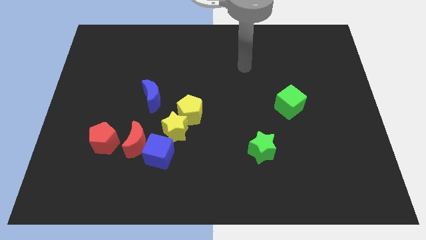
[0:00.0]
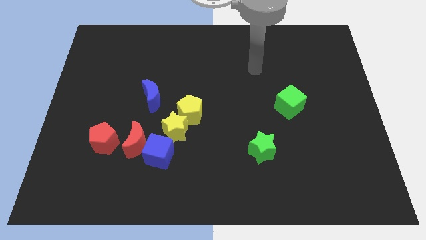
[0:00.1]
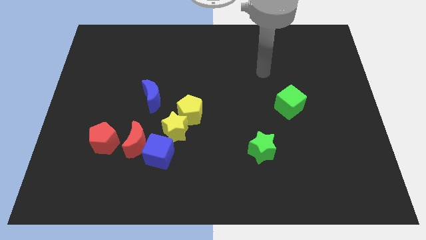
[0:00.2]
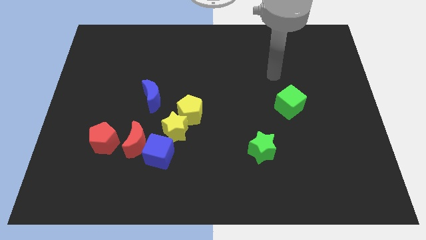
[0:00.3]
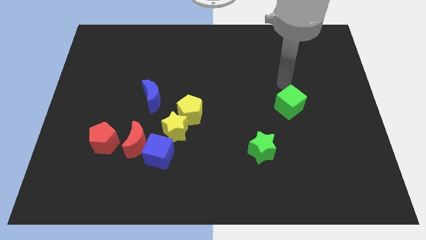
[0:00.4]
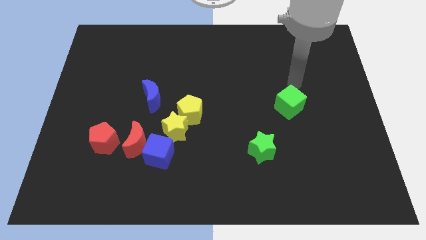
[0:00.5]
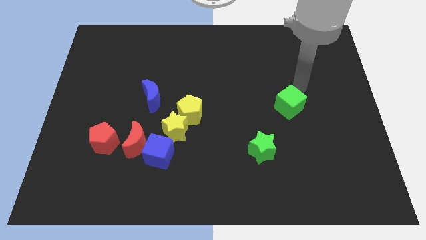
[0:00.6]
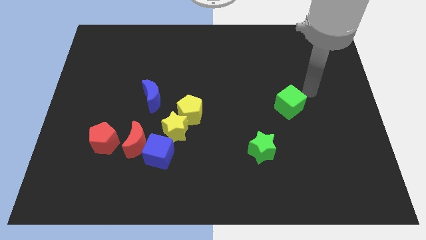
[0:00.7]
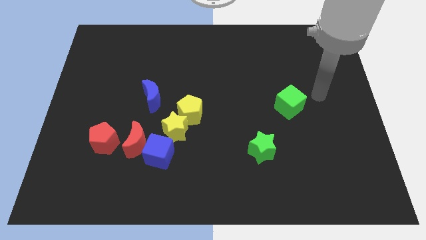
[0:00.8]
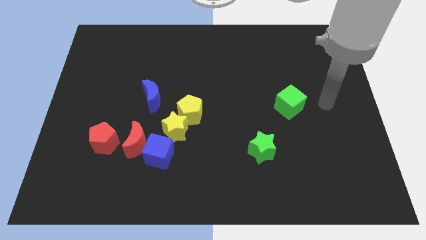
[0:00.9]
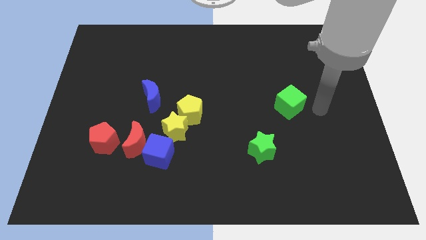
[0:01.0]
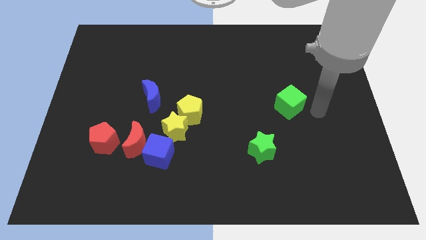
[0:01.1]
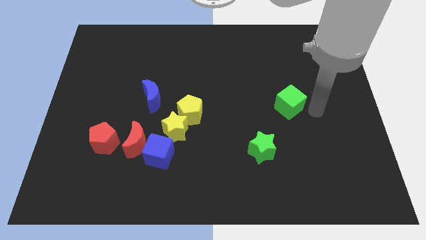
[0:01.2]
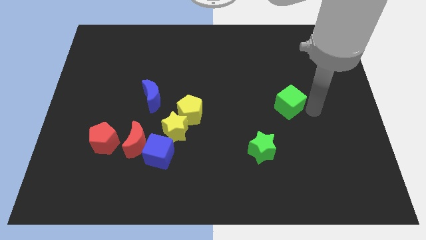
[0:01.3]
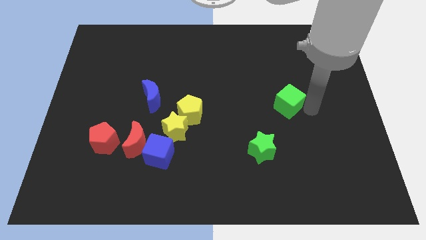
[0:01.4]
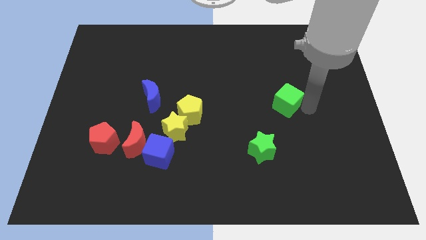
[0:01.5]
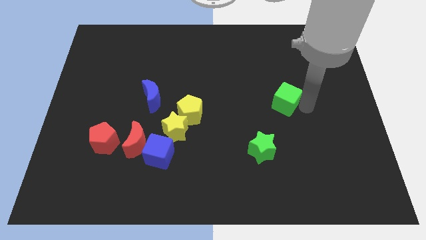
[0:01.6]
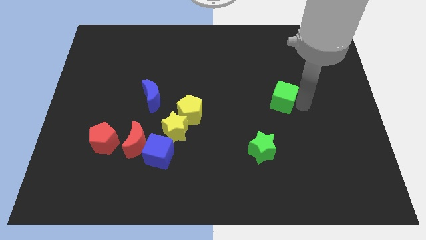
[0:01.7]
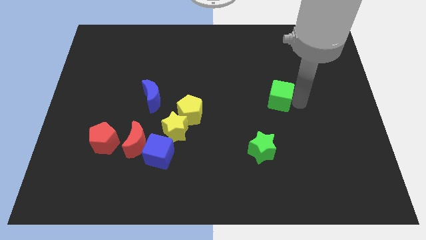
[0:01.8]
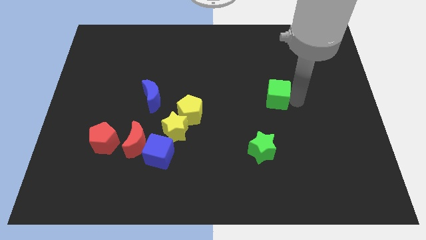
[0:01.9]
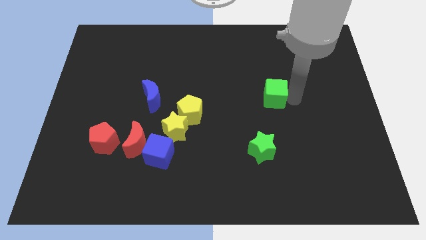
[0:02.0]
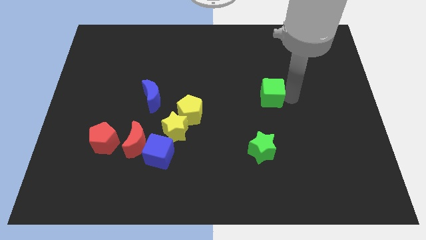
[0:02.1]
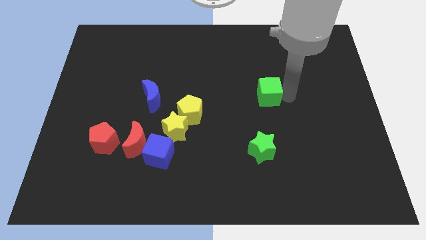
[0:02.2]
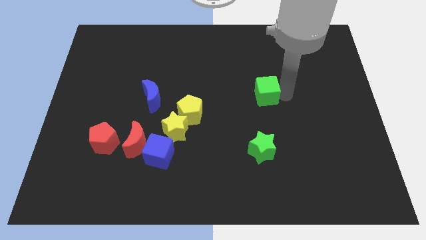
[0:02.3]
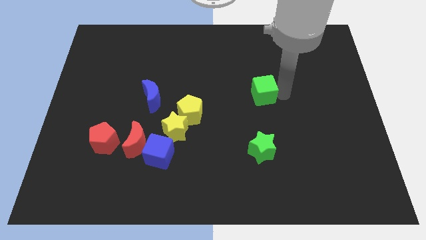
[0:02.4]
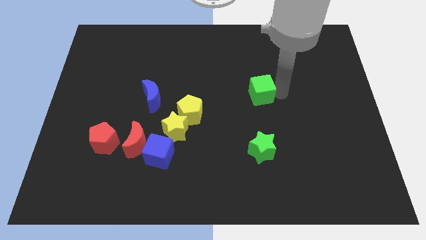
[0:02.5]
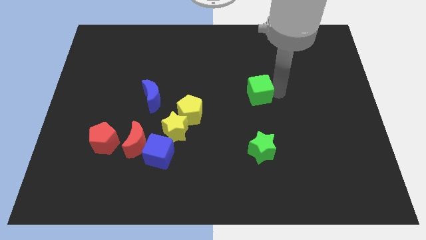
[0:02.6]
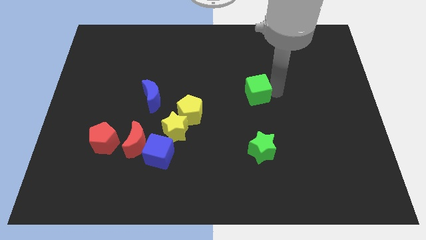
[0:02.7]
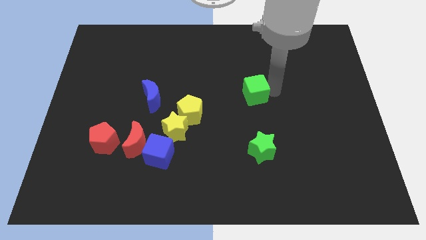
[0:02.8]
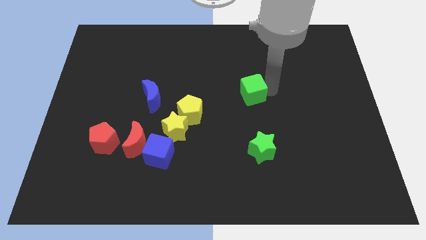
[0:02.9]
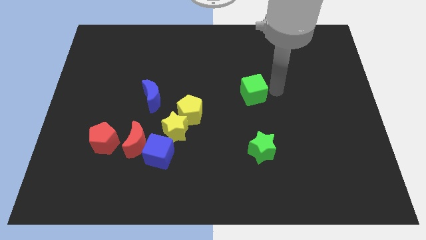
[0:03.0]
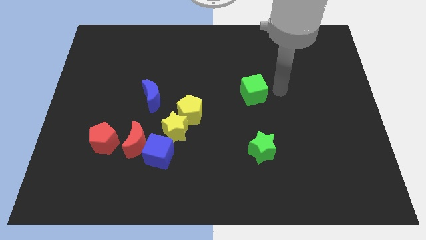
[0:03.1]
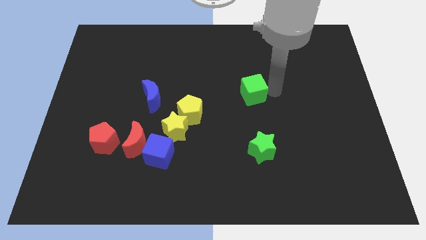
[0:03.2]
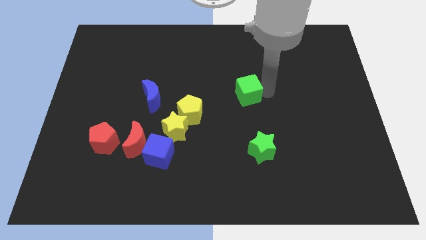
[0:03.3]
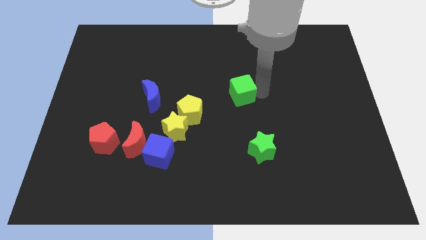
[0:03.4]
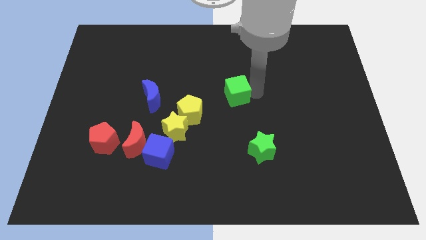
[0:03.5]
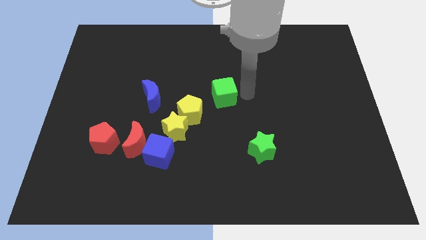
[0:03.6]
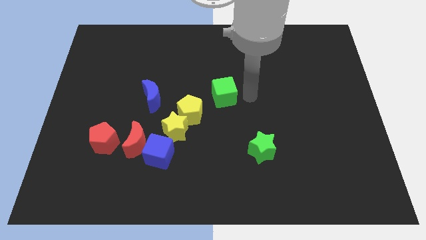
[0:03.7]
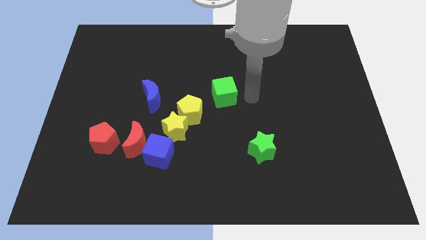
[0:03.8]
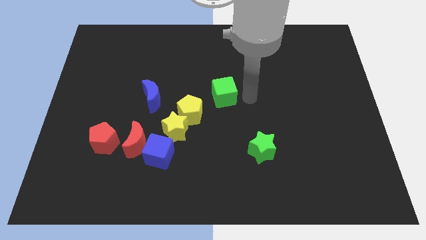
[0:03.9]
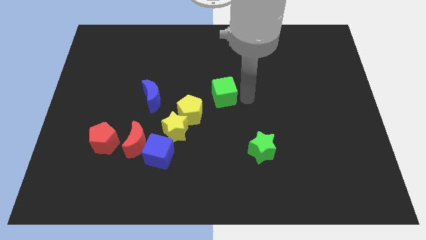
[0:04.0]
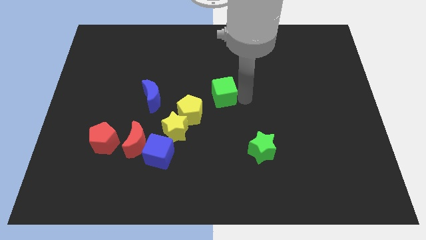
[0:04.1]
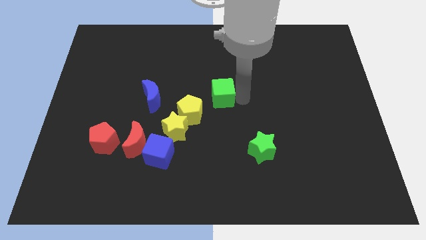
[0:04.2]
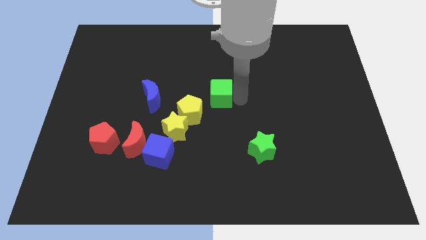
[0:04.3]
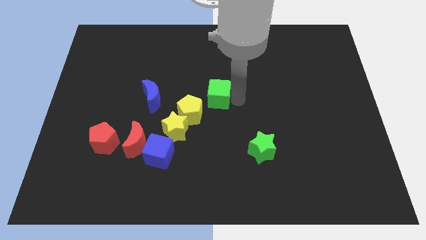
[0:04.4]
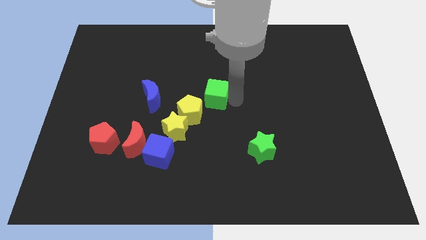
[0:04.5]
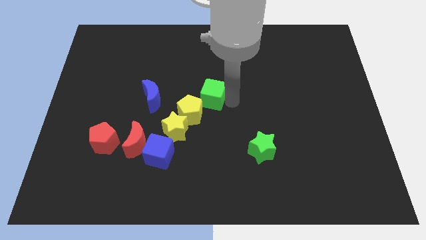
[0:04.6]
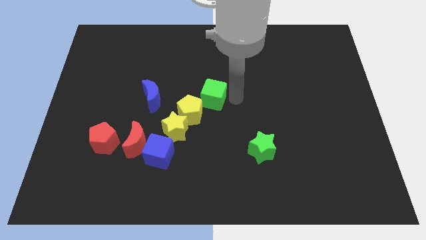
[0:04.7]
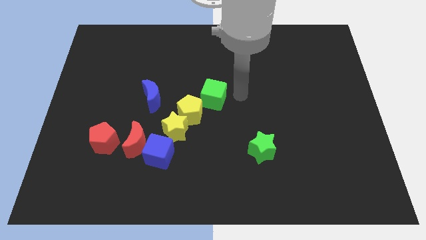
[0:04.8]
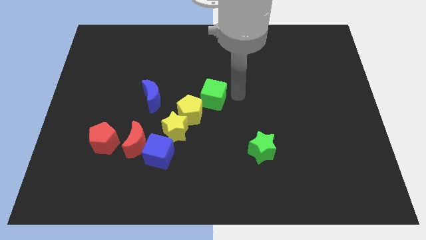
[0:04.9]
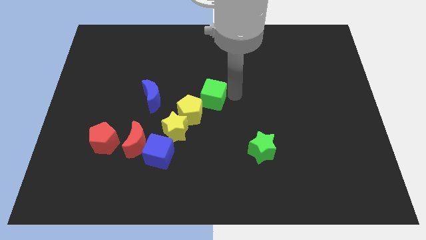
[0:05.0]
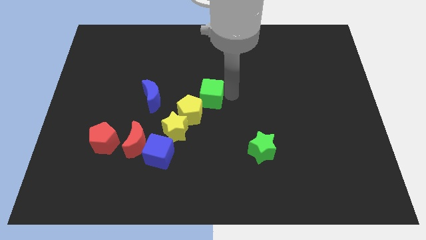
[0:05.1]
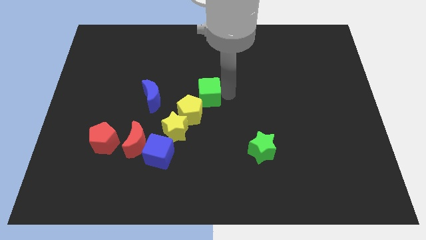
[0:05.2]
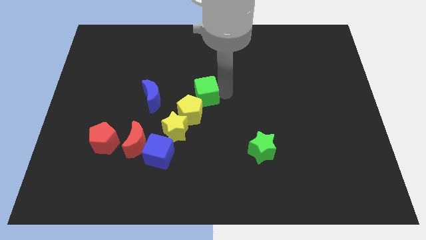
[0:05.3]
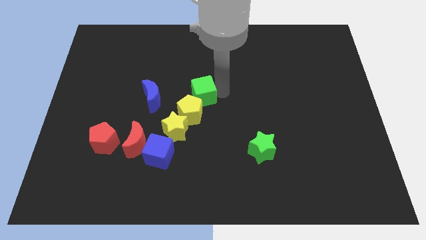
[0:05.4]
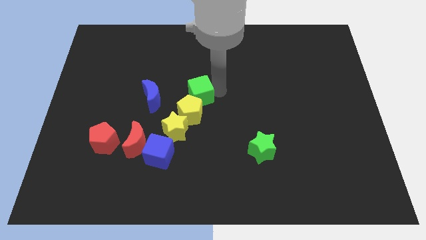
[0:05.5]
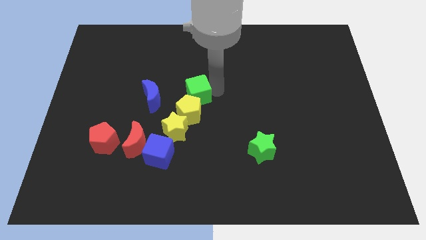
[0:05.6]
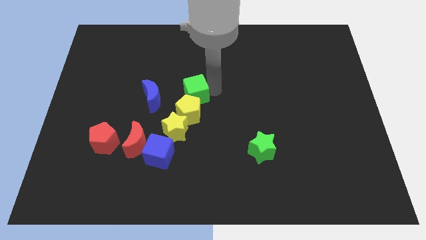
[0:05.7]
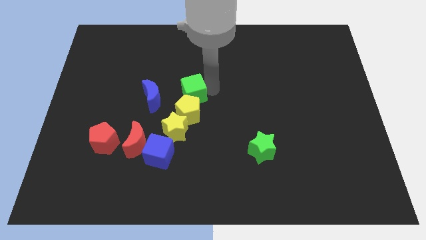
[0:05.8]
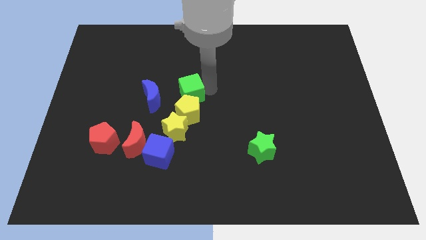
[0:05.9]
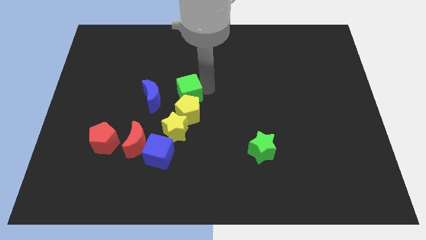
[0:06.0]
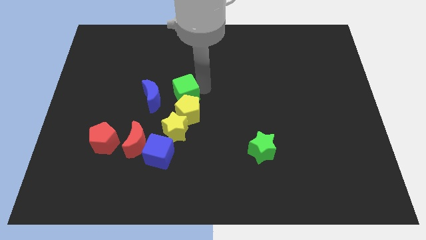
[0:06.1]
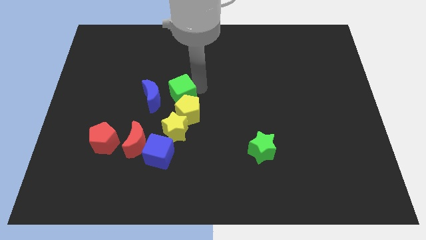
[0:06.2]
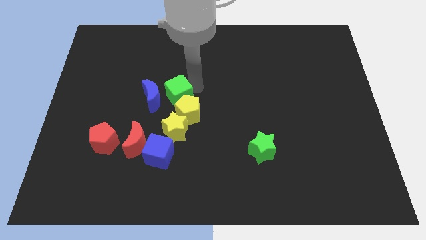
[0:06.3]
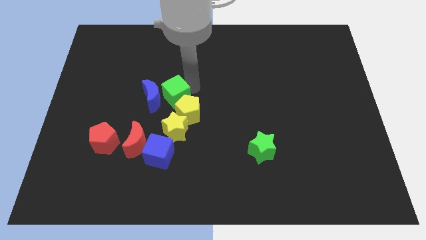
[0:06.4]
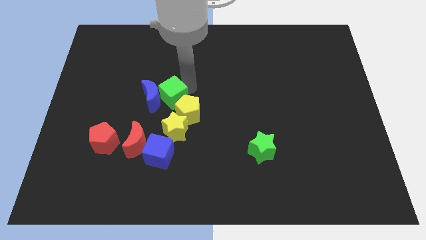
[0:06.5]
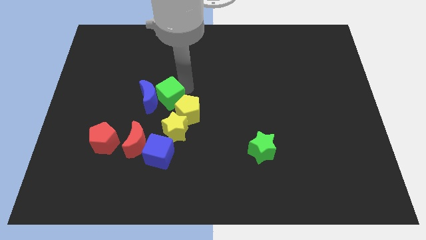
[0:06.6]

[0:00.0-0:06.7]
push the green cube to the top side of the blue cube
